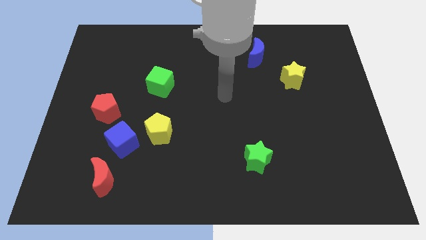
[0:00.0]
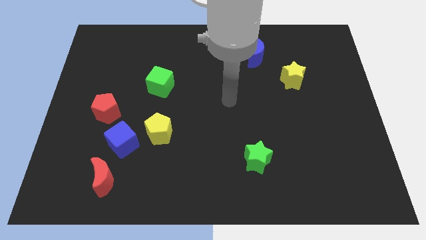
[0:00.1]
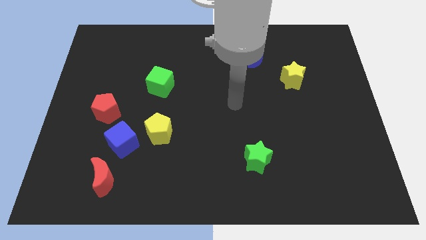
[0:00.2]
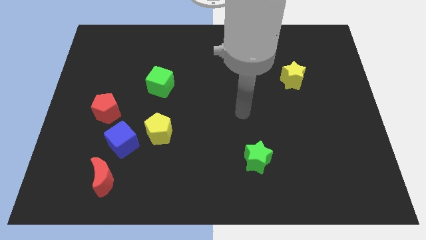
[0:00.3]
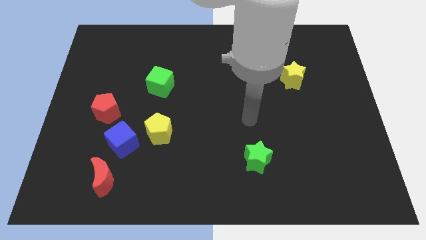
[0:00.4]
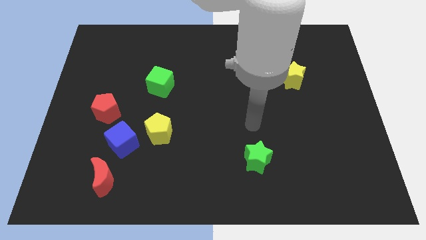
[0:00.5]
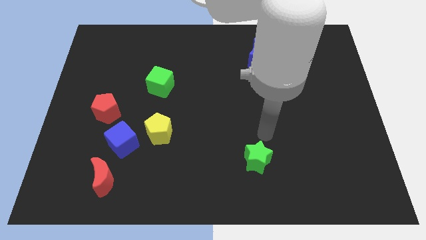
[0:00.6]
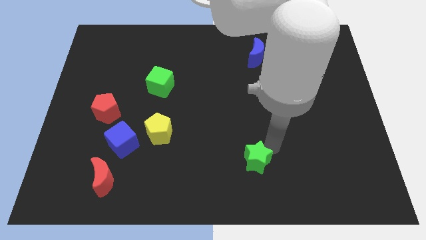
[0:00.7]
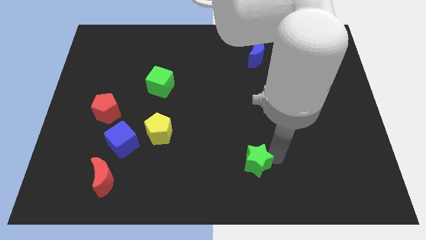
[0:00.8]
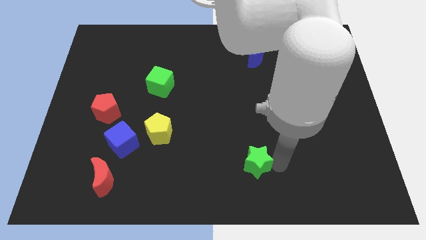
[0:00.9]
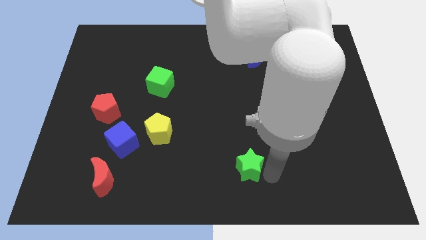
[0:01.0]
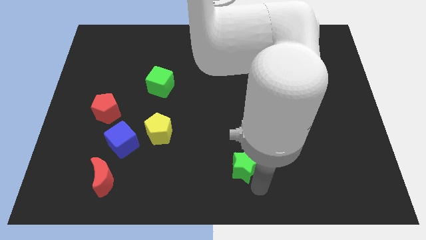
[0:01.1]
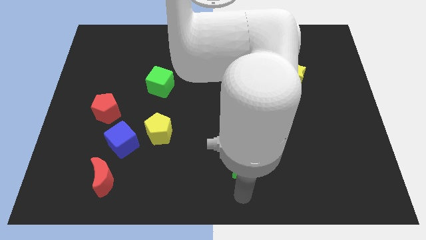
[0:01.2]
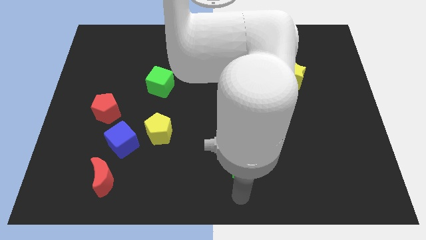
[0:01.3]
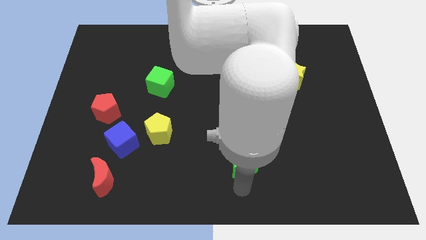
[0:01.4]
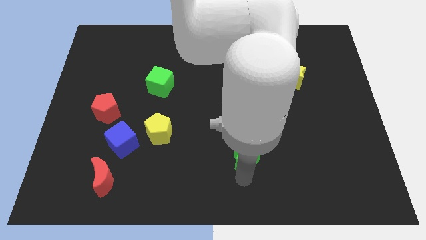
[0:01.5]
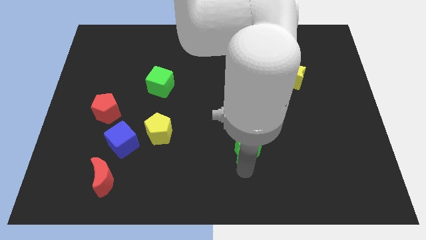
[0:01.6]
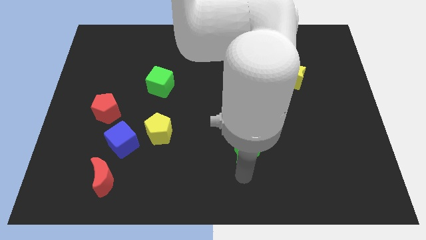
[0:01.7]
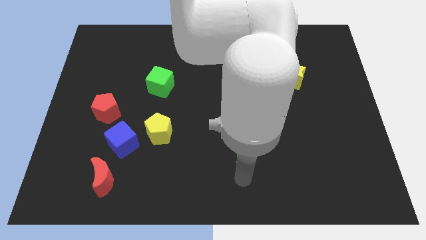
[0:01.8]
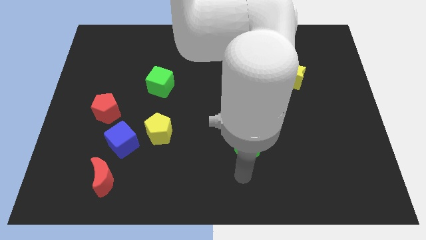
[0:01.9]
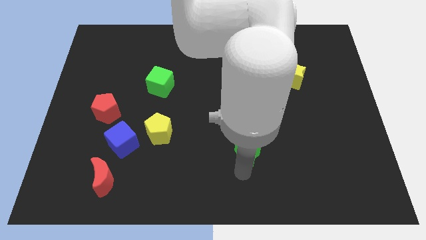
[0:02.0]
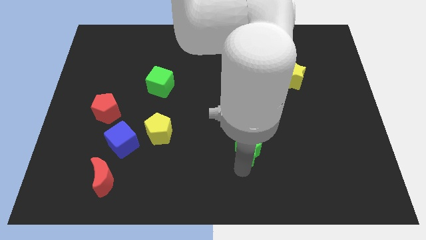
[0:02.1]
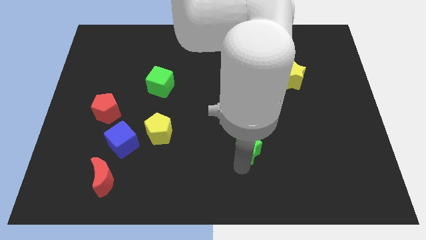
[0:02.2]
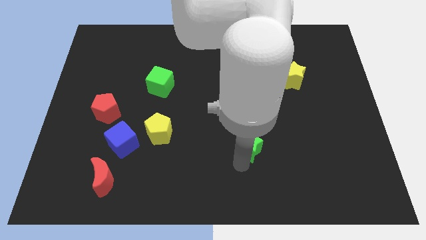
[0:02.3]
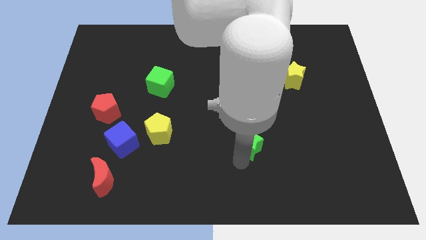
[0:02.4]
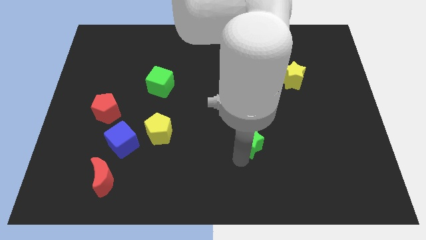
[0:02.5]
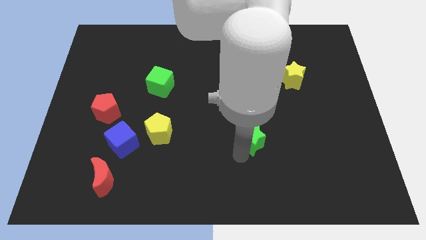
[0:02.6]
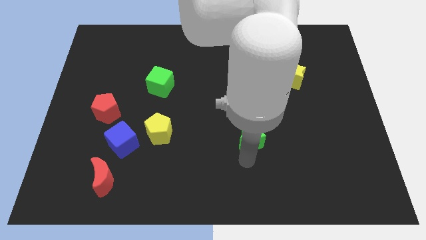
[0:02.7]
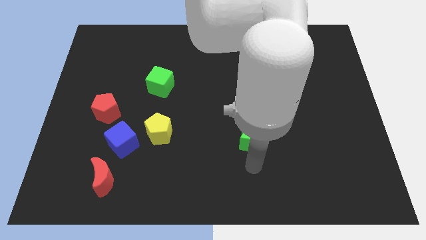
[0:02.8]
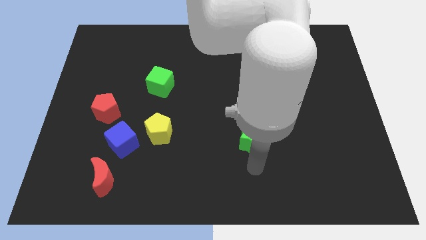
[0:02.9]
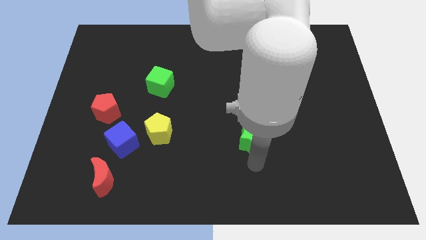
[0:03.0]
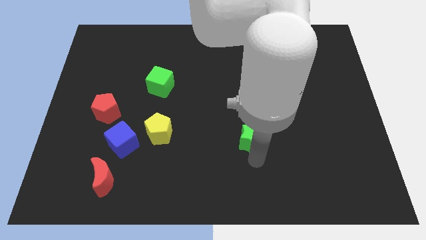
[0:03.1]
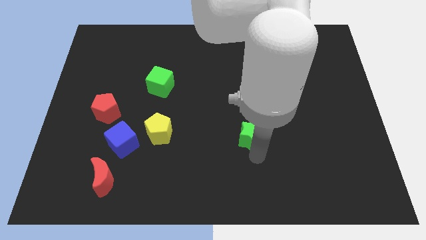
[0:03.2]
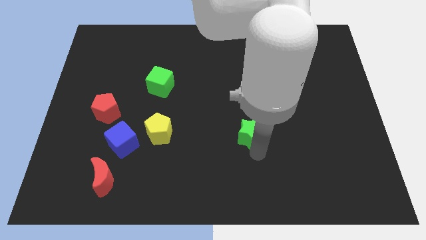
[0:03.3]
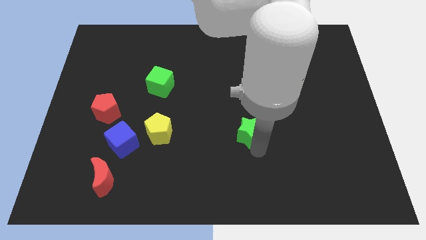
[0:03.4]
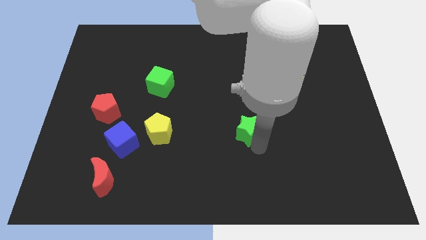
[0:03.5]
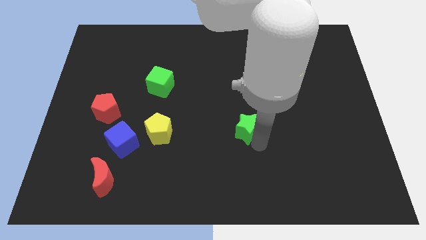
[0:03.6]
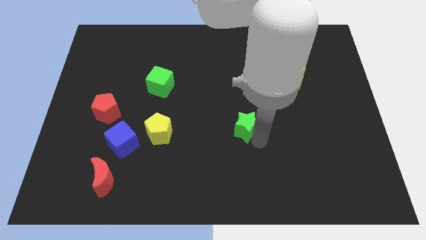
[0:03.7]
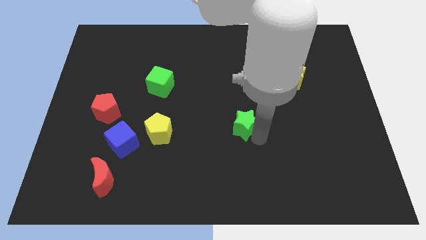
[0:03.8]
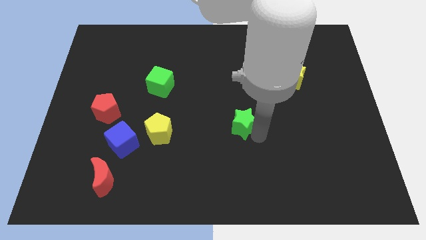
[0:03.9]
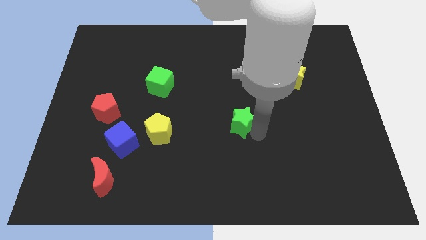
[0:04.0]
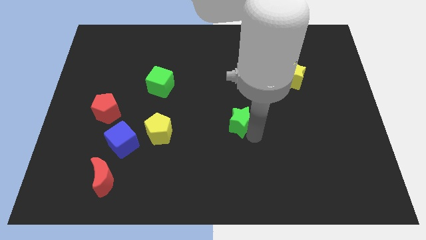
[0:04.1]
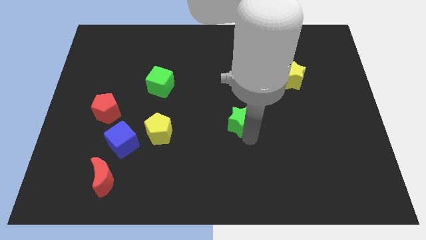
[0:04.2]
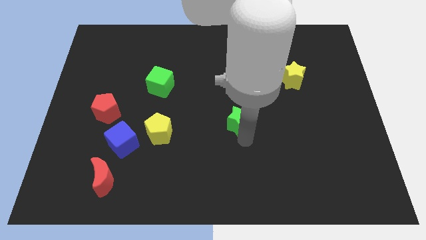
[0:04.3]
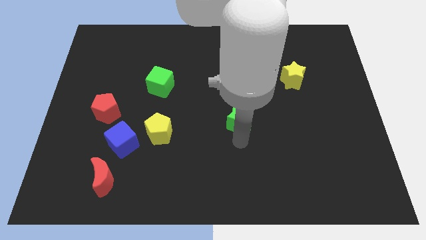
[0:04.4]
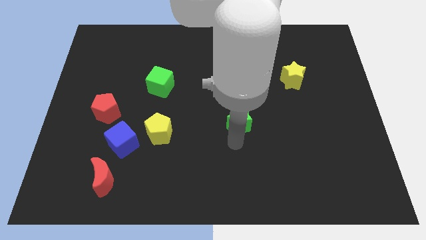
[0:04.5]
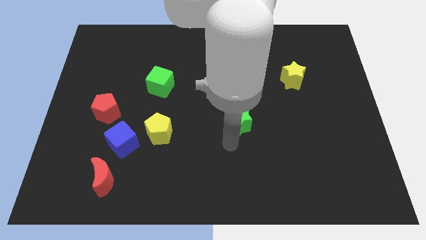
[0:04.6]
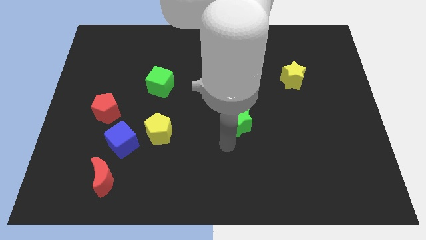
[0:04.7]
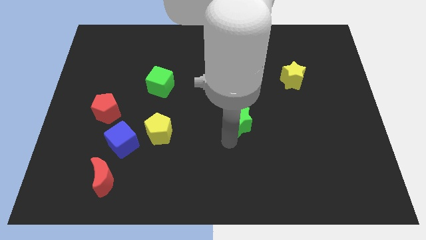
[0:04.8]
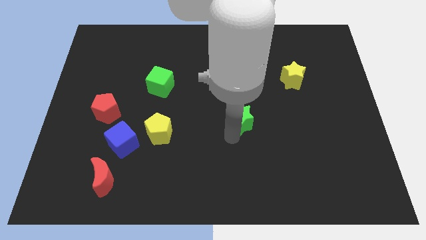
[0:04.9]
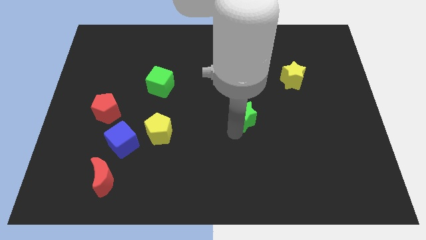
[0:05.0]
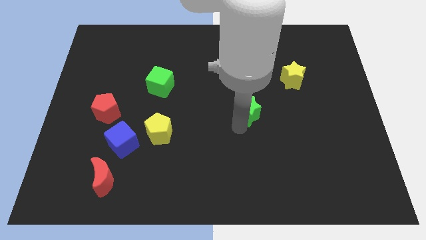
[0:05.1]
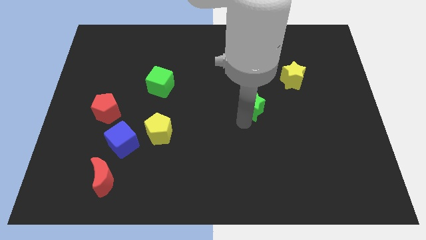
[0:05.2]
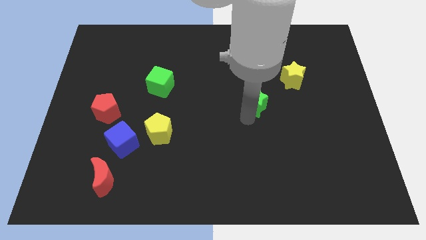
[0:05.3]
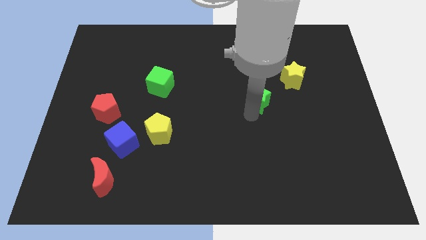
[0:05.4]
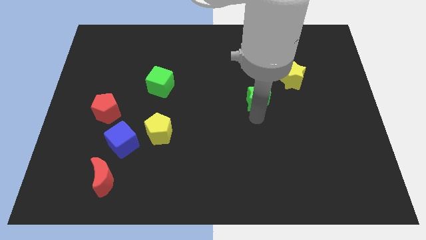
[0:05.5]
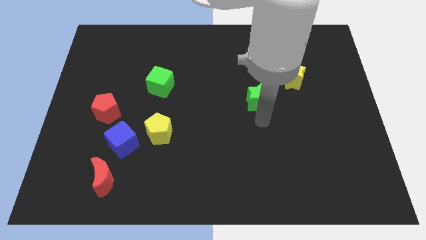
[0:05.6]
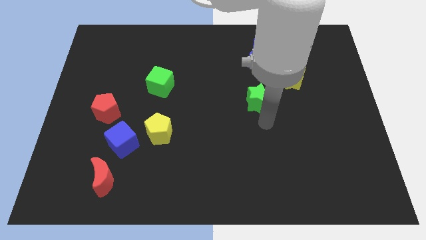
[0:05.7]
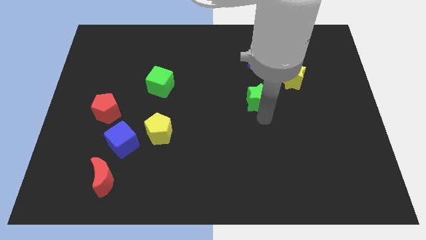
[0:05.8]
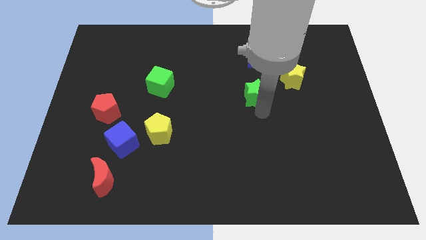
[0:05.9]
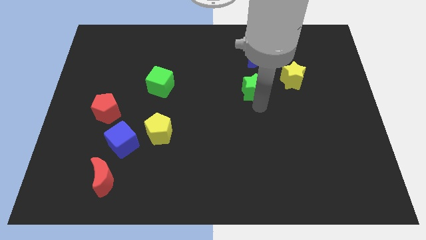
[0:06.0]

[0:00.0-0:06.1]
push the green star just left of the yellow star

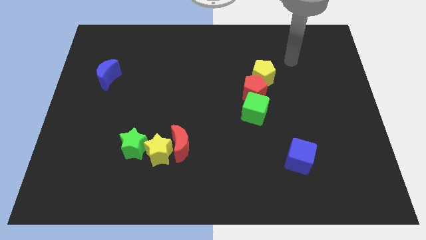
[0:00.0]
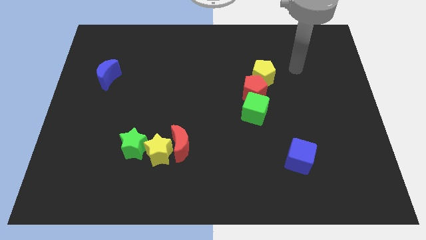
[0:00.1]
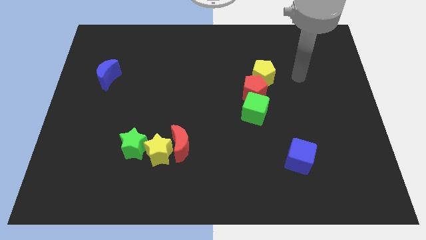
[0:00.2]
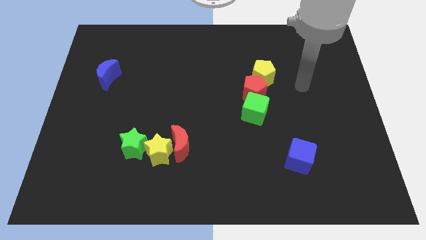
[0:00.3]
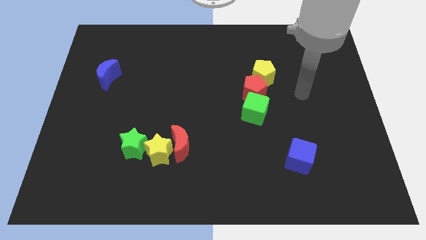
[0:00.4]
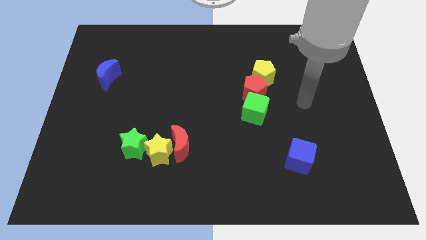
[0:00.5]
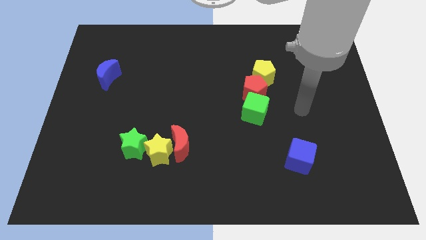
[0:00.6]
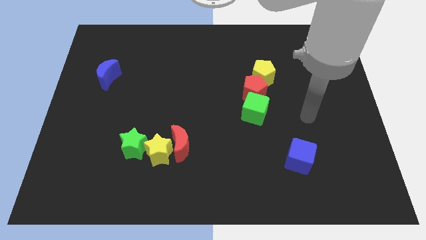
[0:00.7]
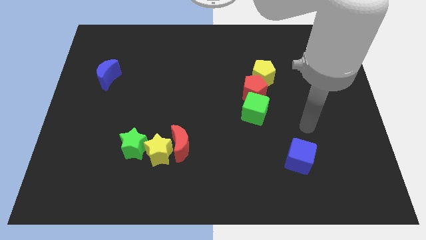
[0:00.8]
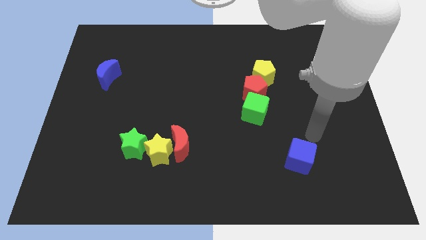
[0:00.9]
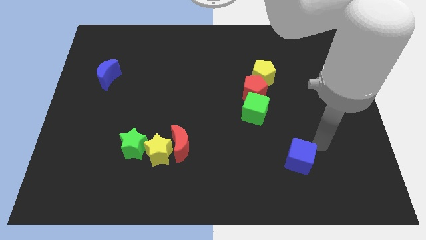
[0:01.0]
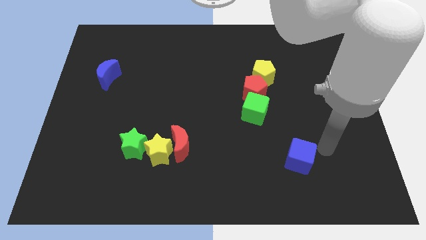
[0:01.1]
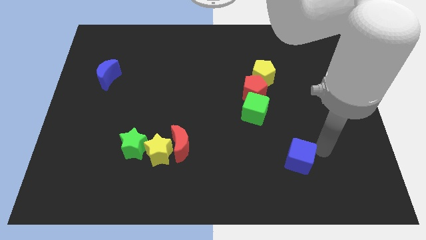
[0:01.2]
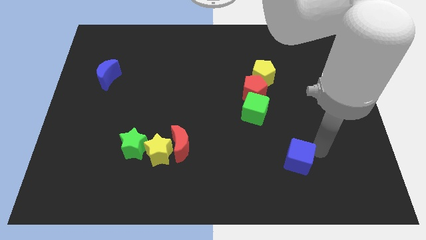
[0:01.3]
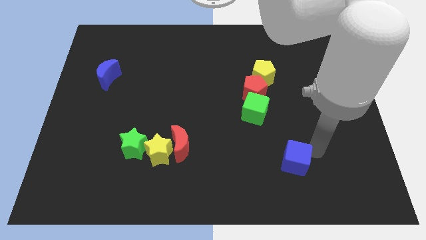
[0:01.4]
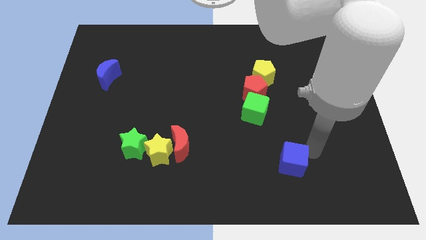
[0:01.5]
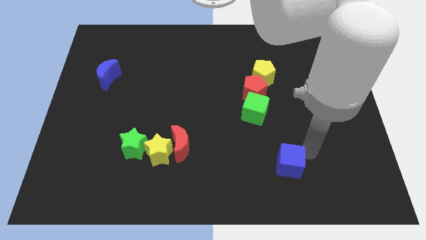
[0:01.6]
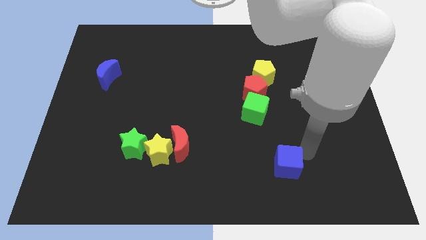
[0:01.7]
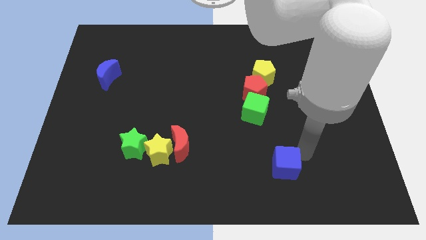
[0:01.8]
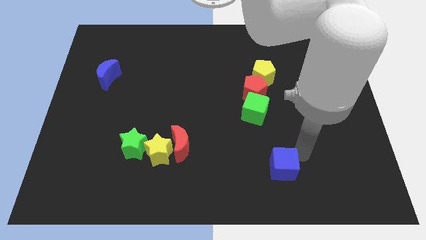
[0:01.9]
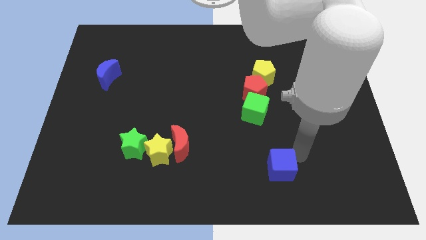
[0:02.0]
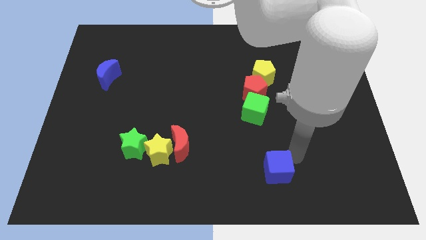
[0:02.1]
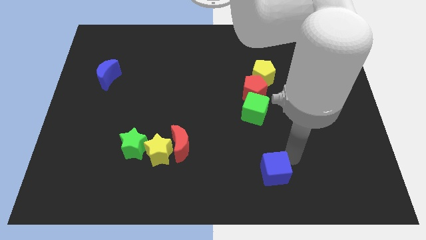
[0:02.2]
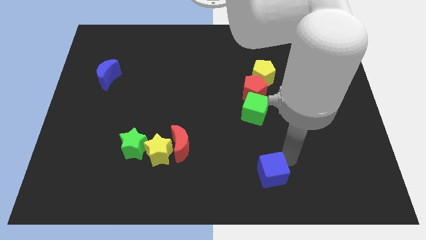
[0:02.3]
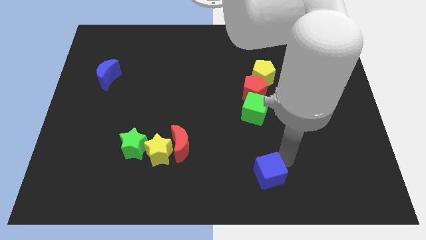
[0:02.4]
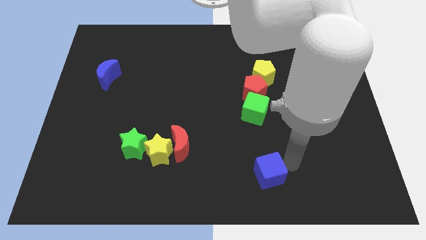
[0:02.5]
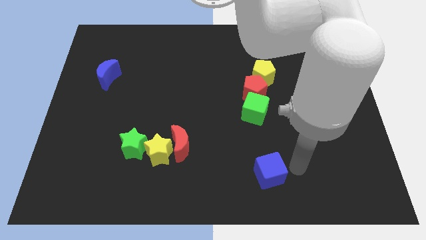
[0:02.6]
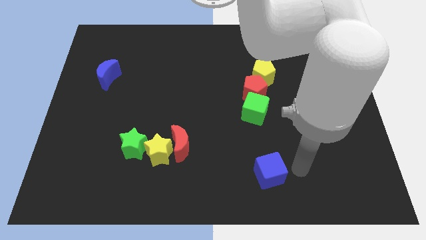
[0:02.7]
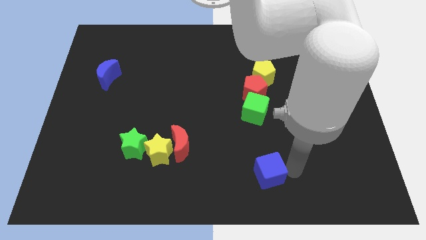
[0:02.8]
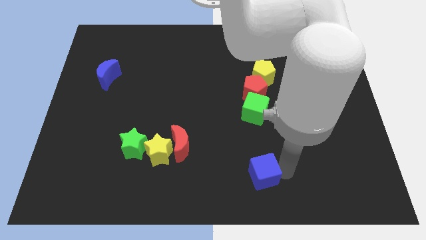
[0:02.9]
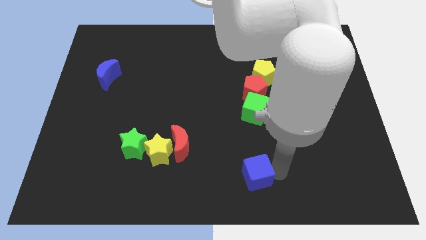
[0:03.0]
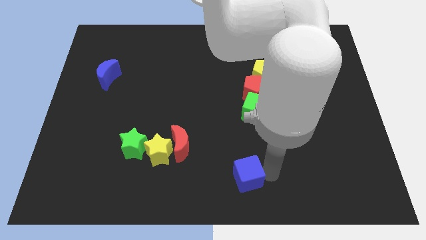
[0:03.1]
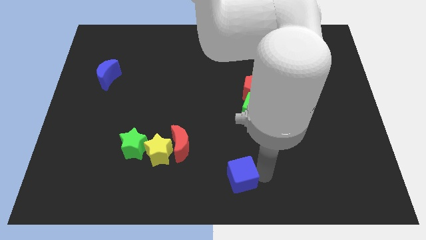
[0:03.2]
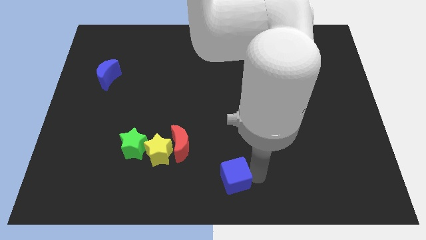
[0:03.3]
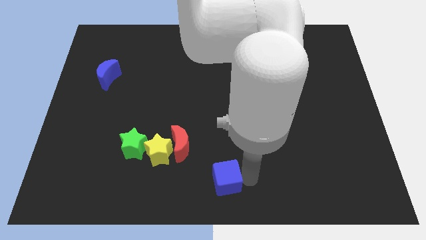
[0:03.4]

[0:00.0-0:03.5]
slide the blue cube to the bottom right side of the red moon
